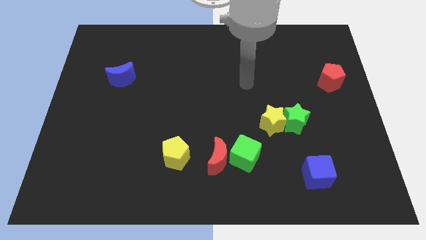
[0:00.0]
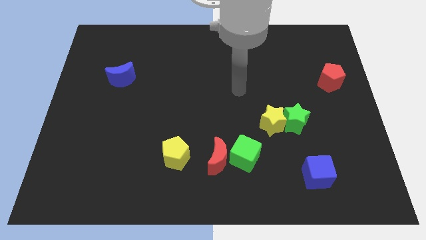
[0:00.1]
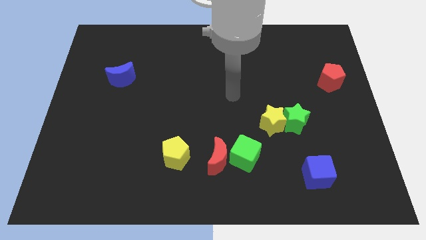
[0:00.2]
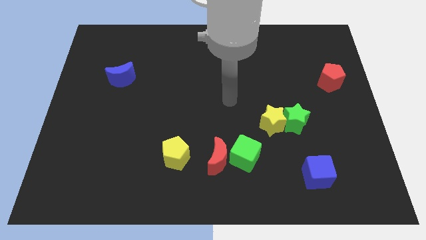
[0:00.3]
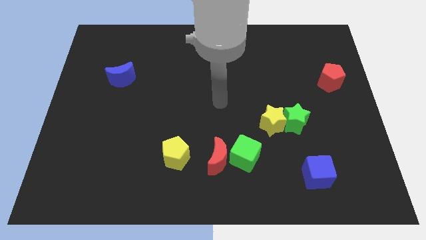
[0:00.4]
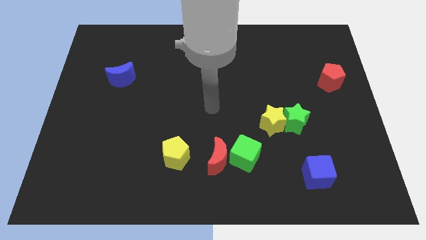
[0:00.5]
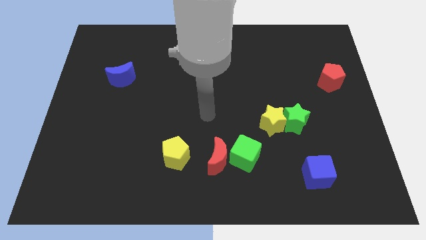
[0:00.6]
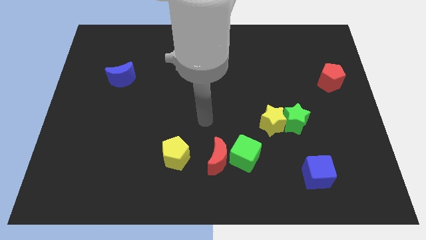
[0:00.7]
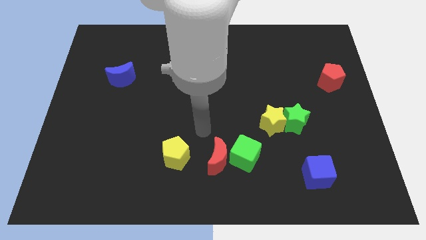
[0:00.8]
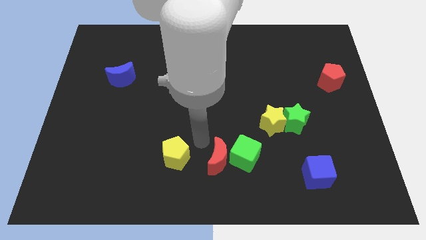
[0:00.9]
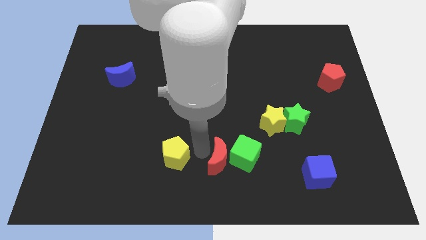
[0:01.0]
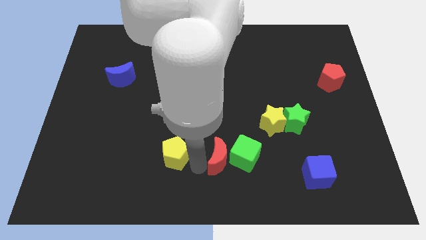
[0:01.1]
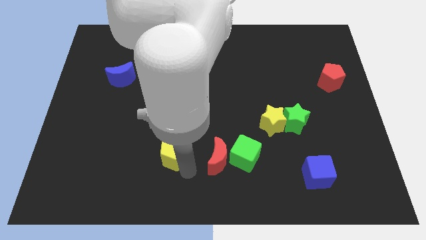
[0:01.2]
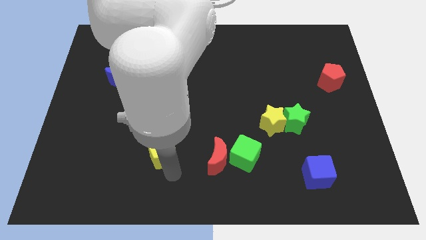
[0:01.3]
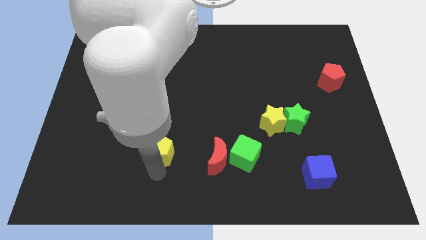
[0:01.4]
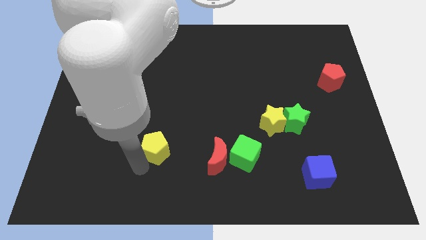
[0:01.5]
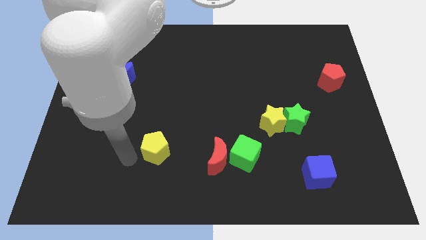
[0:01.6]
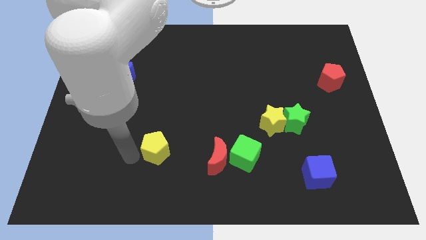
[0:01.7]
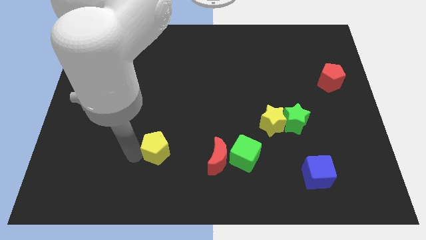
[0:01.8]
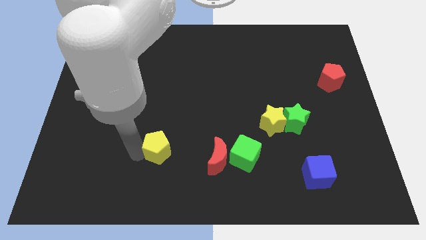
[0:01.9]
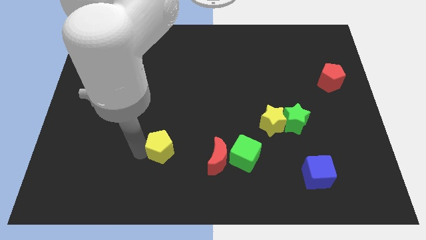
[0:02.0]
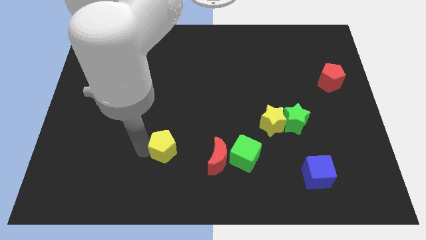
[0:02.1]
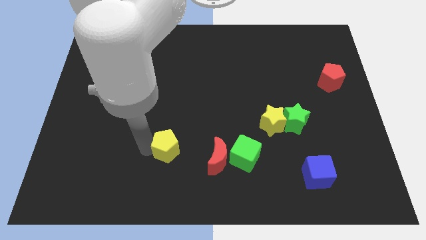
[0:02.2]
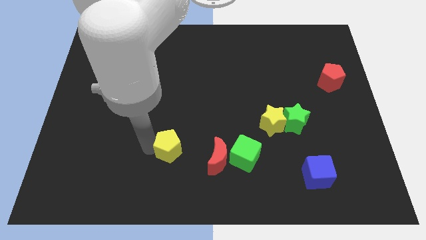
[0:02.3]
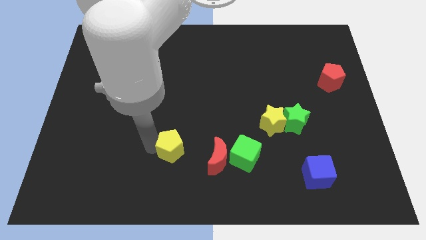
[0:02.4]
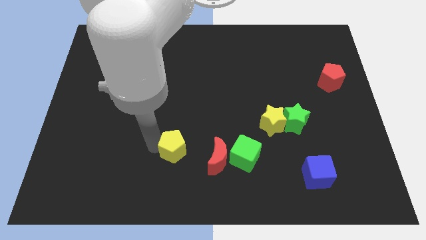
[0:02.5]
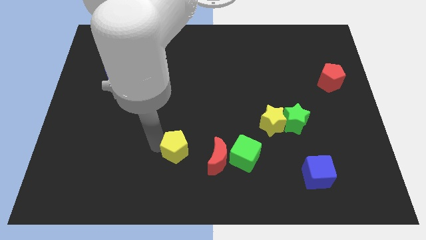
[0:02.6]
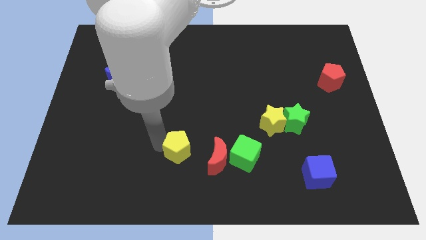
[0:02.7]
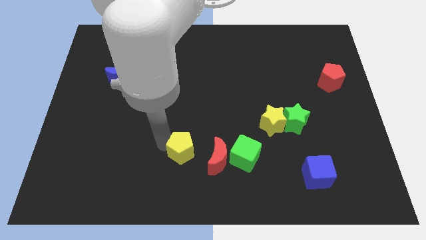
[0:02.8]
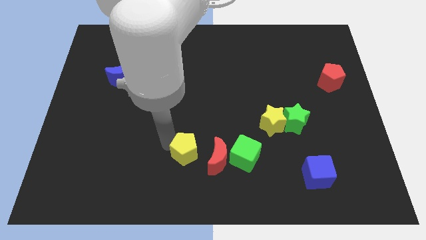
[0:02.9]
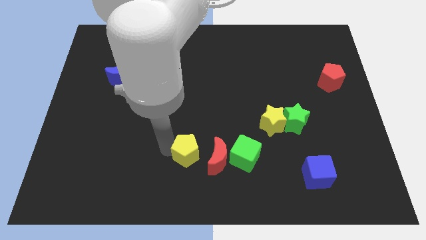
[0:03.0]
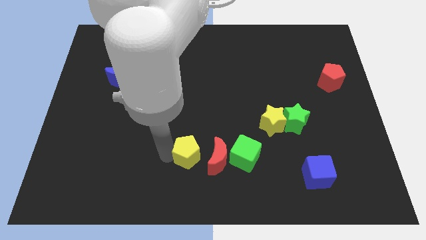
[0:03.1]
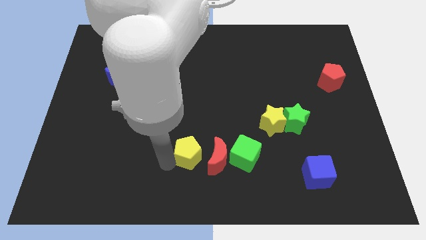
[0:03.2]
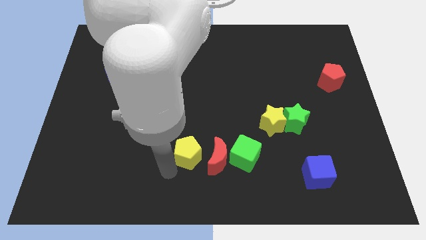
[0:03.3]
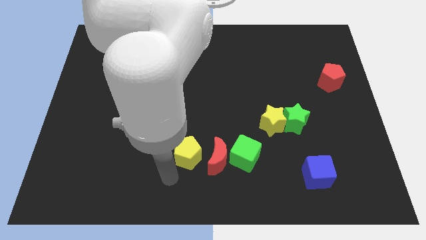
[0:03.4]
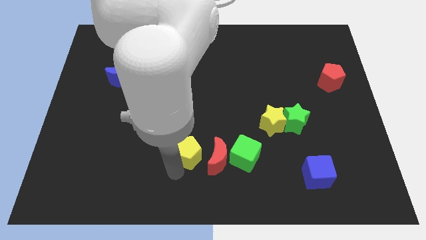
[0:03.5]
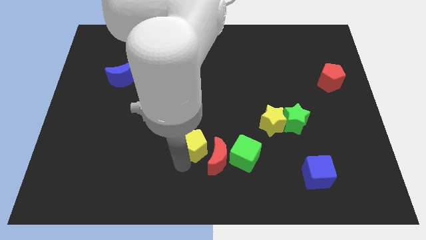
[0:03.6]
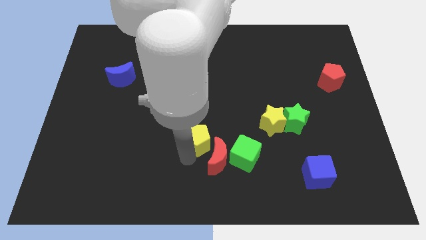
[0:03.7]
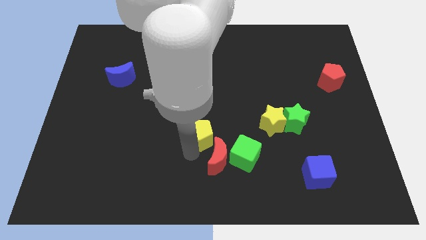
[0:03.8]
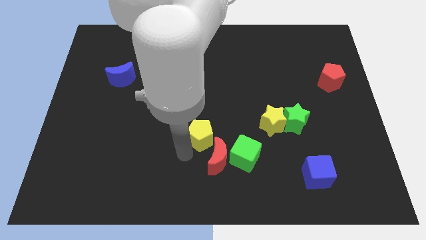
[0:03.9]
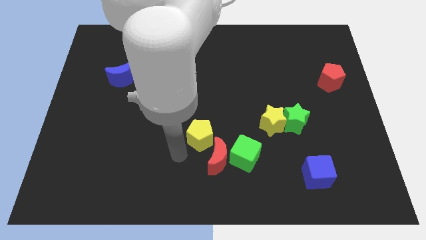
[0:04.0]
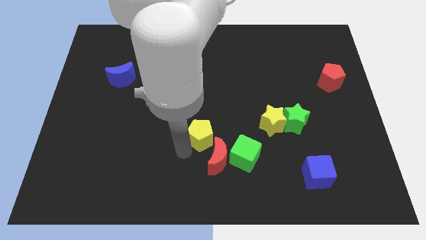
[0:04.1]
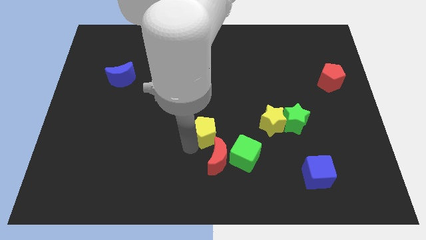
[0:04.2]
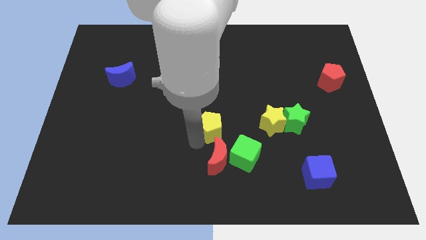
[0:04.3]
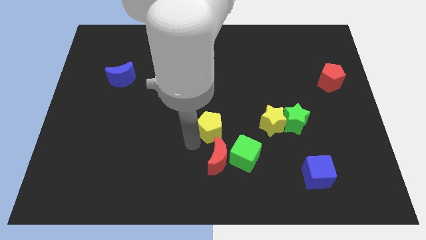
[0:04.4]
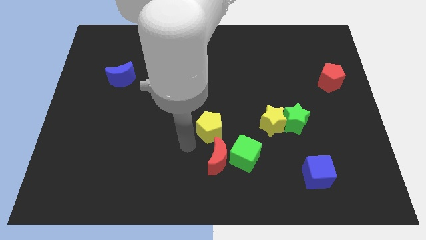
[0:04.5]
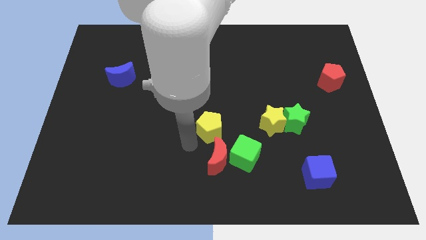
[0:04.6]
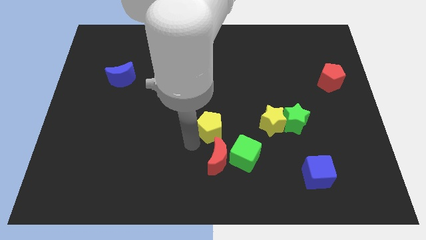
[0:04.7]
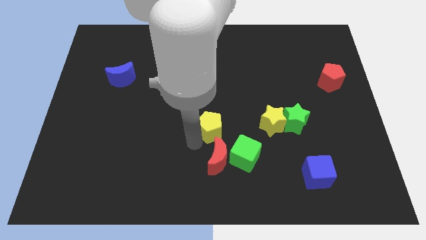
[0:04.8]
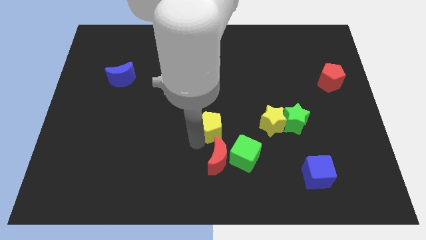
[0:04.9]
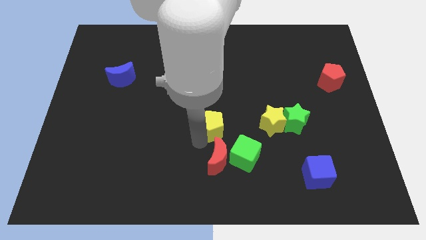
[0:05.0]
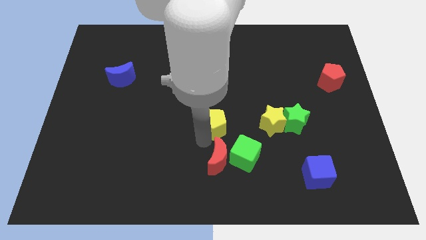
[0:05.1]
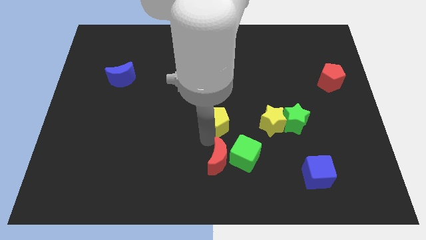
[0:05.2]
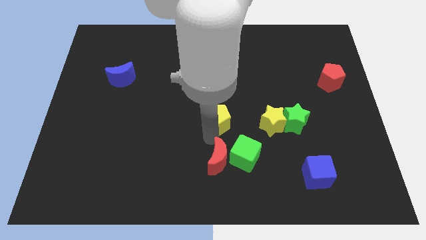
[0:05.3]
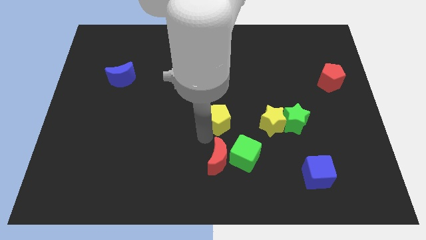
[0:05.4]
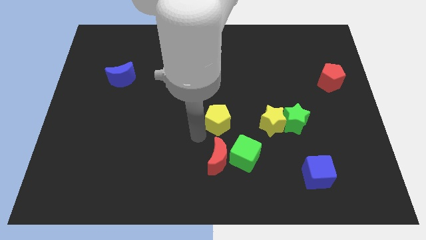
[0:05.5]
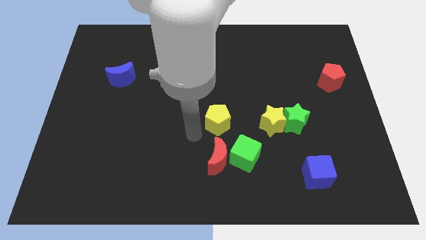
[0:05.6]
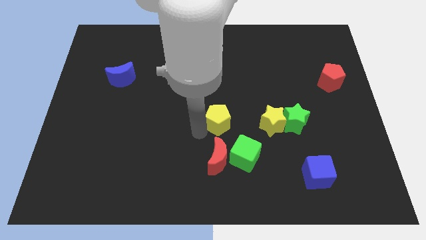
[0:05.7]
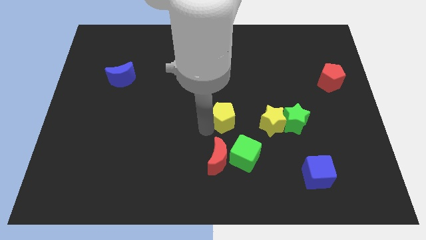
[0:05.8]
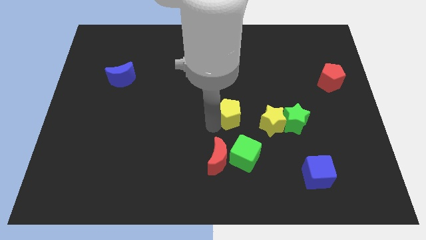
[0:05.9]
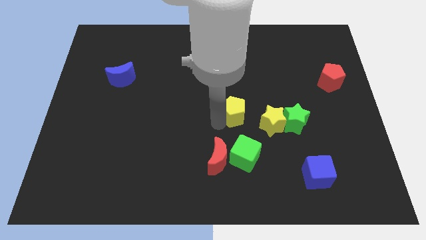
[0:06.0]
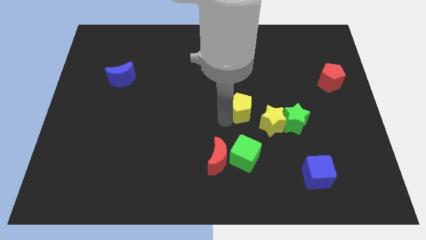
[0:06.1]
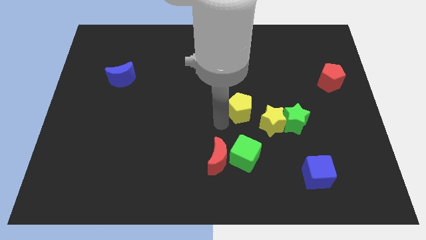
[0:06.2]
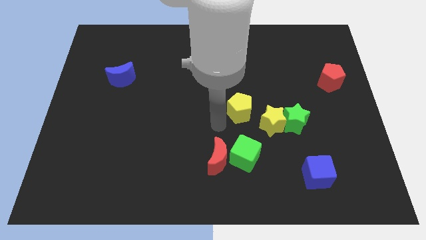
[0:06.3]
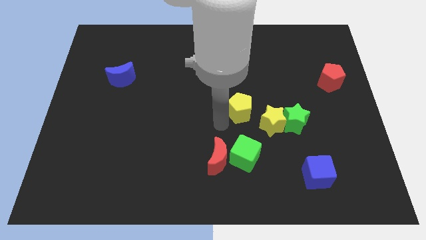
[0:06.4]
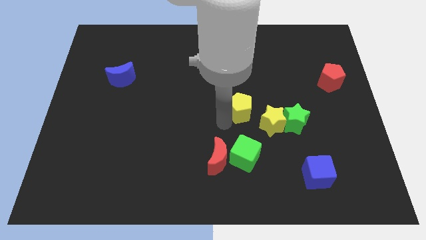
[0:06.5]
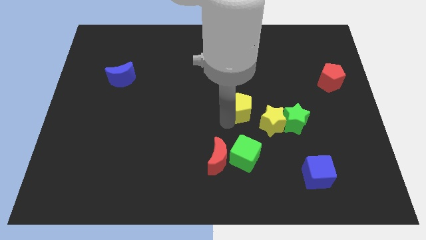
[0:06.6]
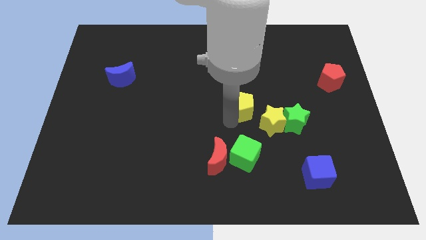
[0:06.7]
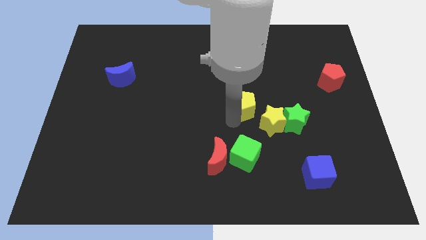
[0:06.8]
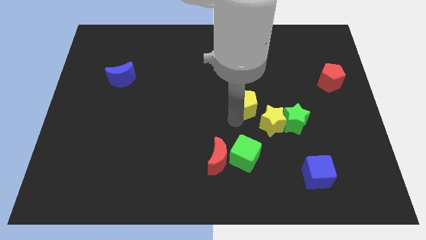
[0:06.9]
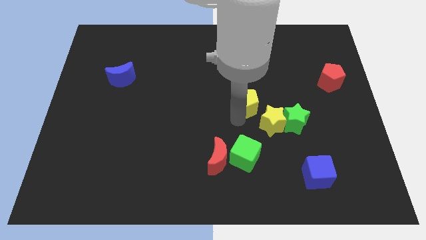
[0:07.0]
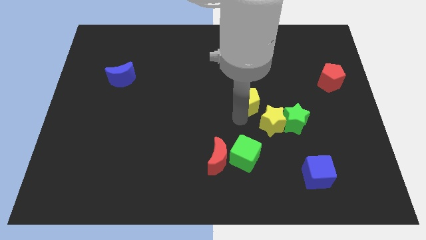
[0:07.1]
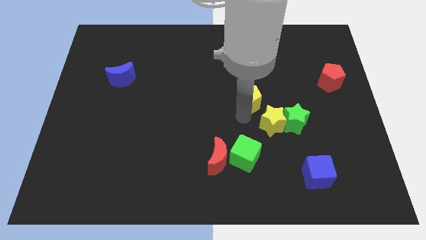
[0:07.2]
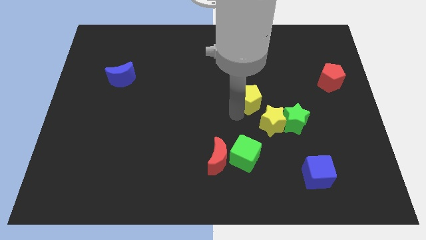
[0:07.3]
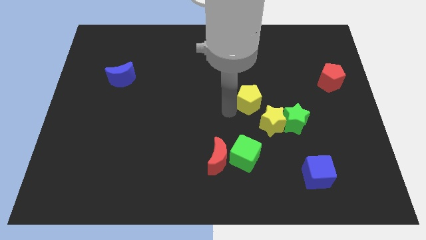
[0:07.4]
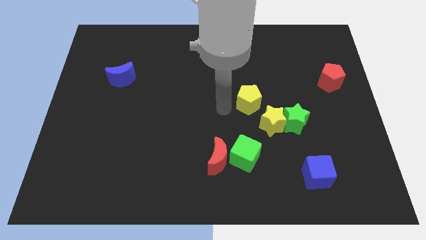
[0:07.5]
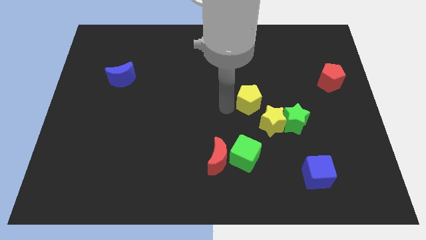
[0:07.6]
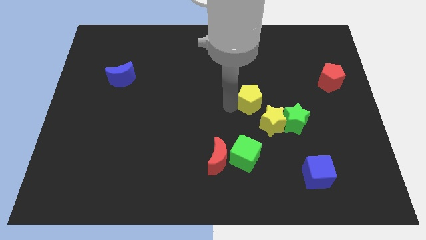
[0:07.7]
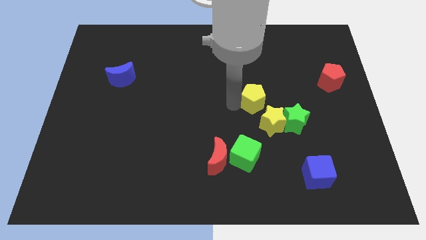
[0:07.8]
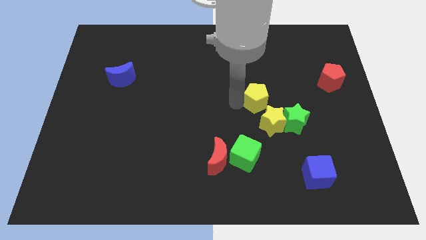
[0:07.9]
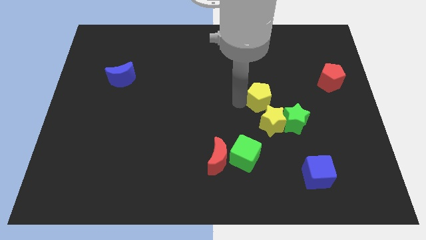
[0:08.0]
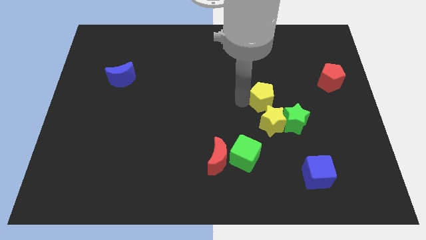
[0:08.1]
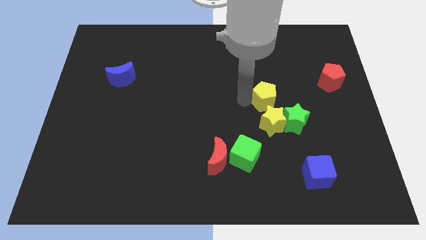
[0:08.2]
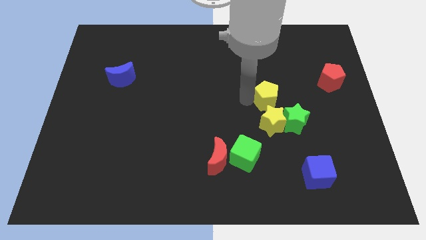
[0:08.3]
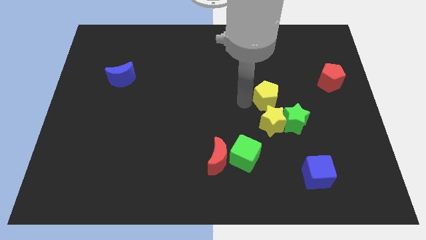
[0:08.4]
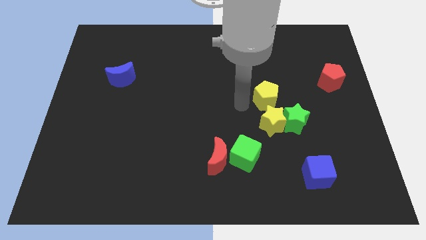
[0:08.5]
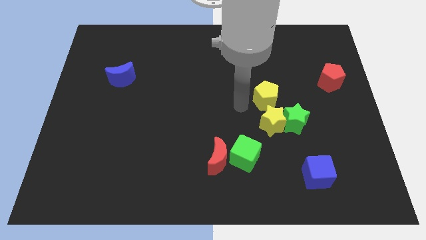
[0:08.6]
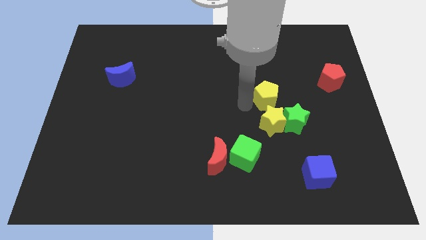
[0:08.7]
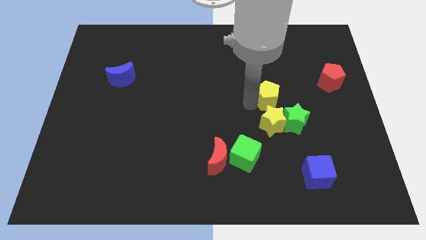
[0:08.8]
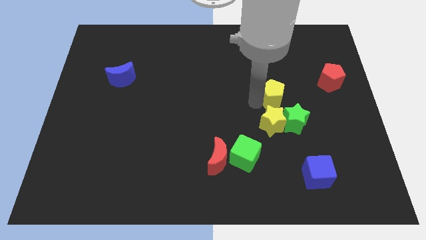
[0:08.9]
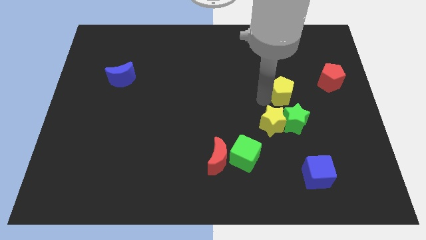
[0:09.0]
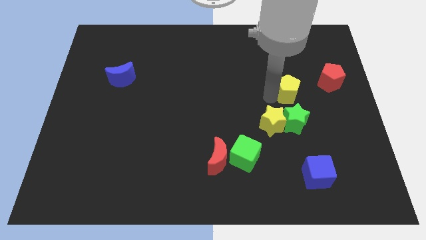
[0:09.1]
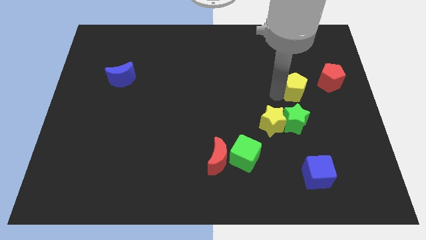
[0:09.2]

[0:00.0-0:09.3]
slide the yellow pentagon to the bottom left of the red pentagon
